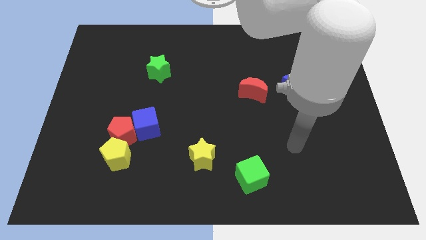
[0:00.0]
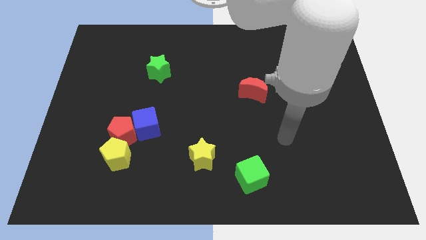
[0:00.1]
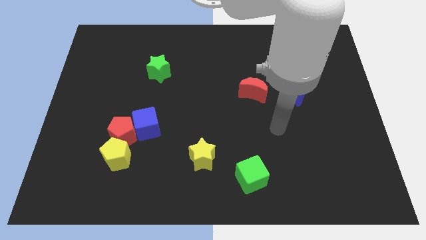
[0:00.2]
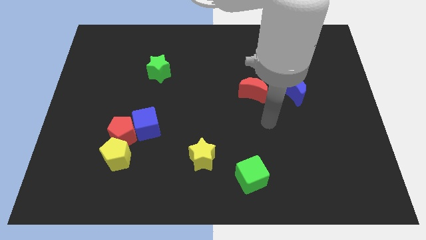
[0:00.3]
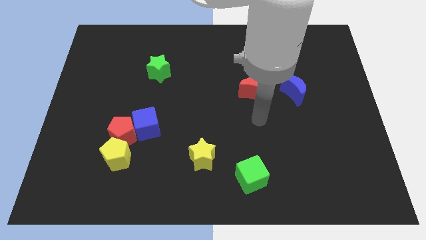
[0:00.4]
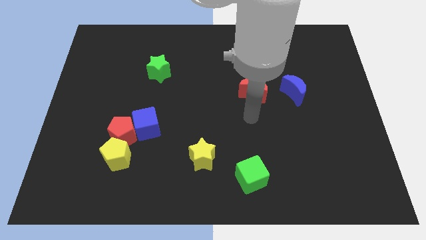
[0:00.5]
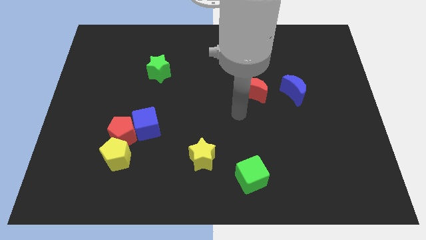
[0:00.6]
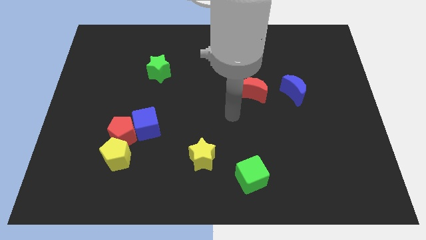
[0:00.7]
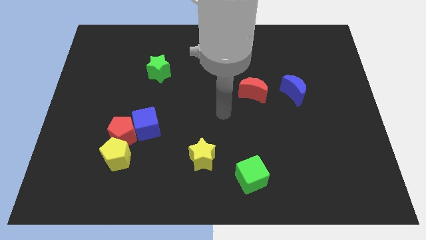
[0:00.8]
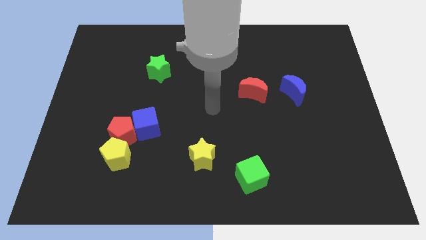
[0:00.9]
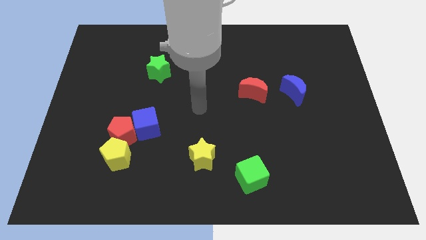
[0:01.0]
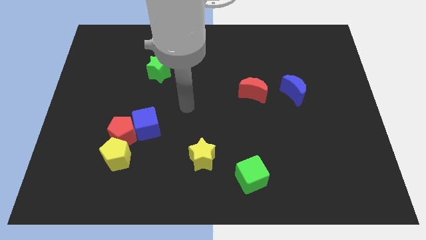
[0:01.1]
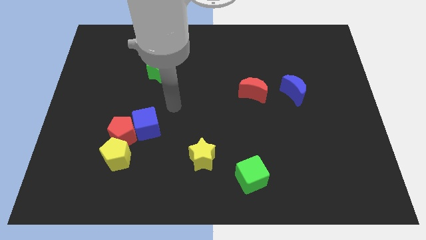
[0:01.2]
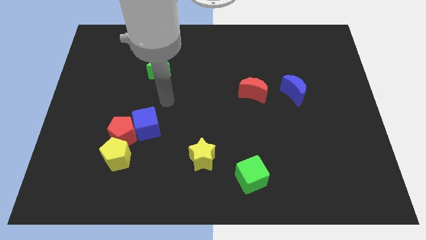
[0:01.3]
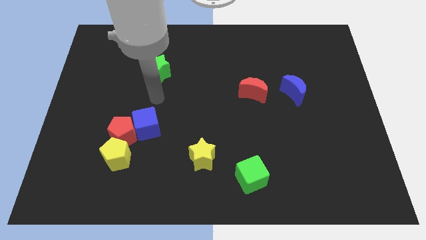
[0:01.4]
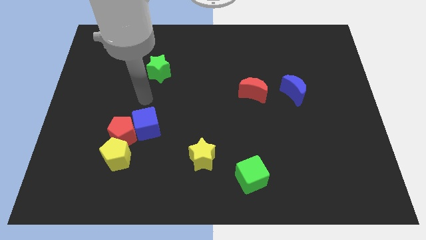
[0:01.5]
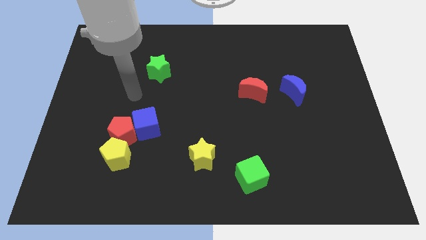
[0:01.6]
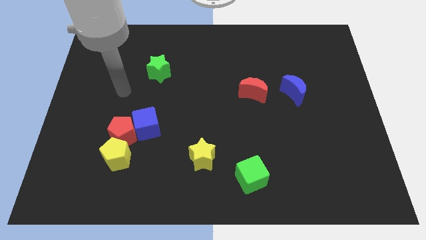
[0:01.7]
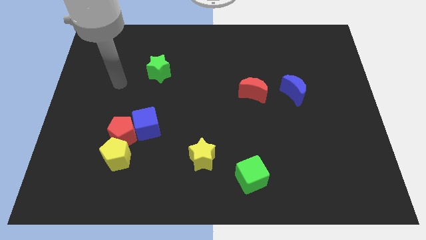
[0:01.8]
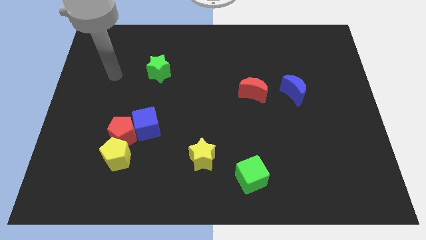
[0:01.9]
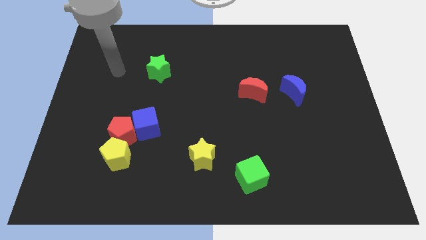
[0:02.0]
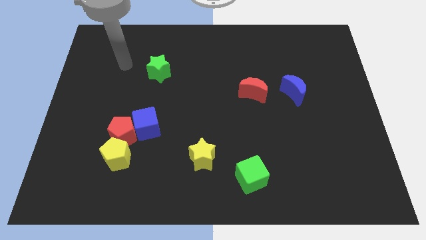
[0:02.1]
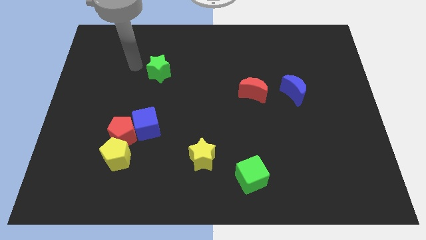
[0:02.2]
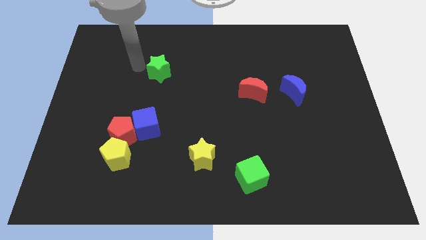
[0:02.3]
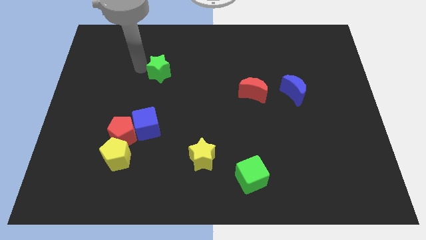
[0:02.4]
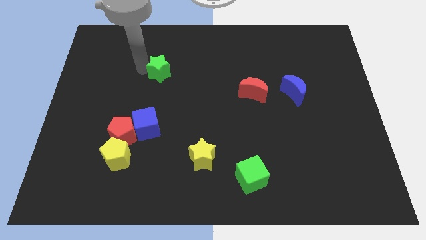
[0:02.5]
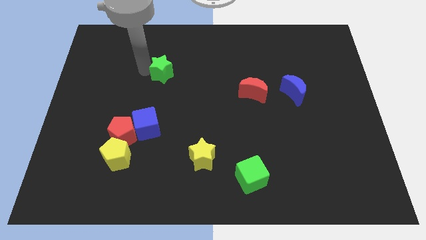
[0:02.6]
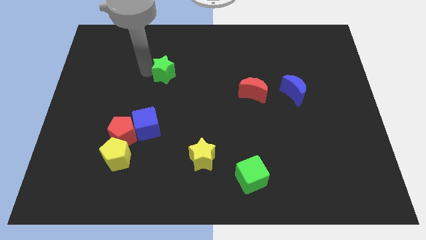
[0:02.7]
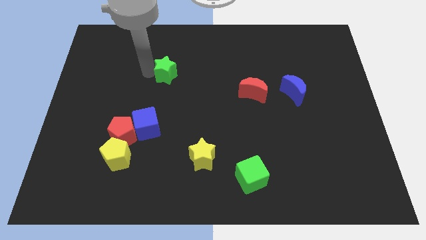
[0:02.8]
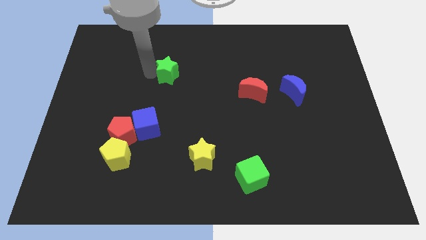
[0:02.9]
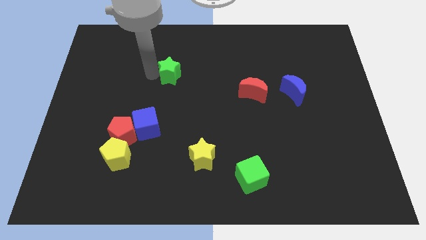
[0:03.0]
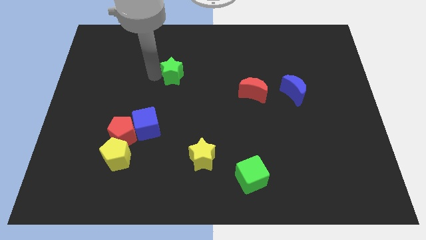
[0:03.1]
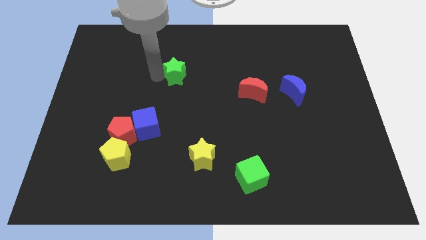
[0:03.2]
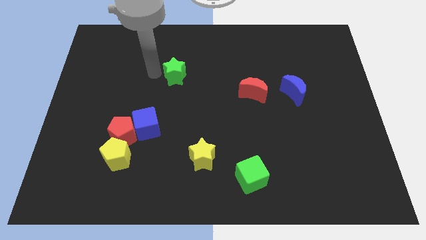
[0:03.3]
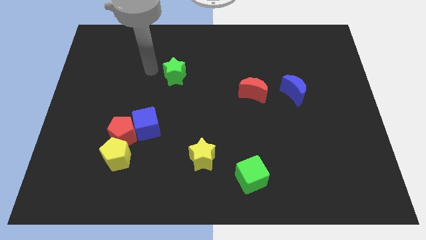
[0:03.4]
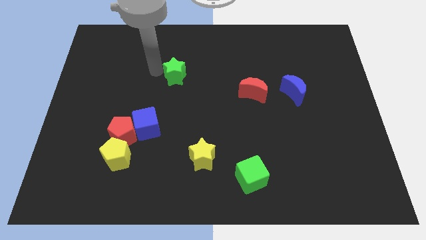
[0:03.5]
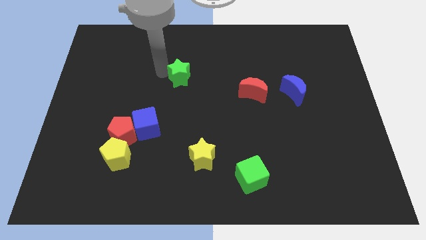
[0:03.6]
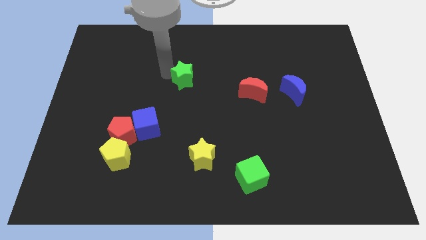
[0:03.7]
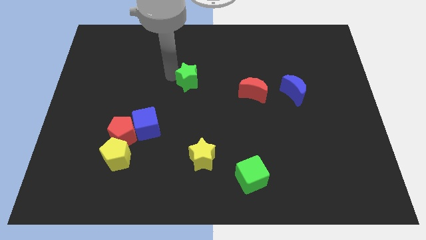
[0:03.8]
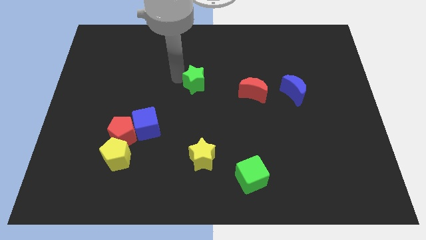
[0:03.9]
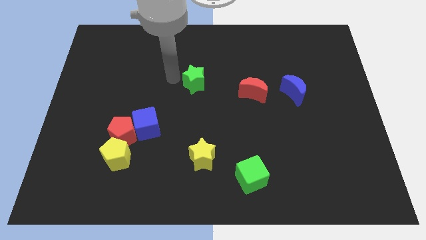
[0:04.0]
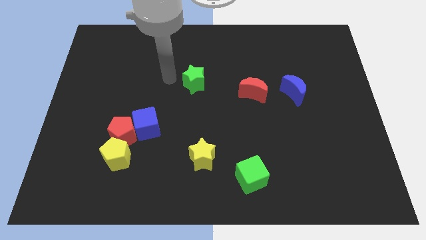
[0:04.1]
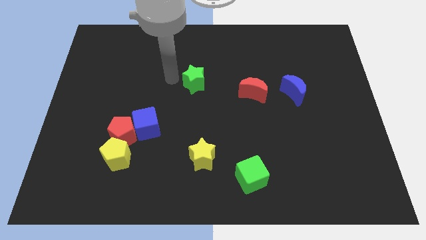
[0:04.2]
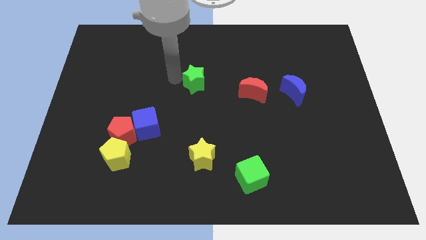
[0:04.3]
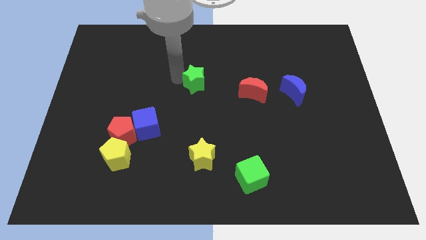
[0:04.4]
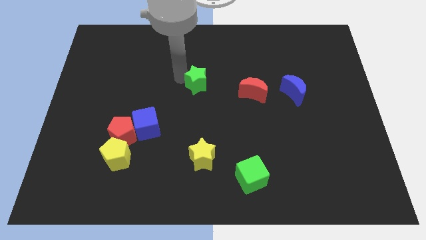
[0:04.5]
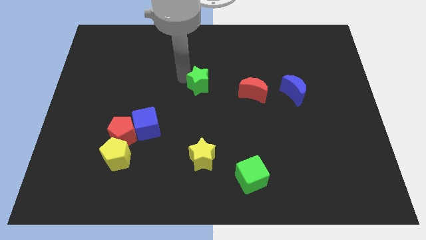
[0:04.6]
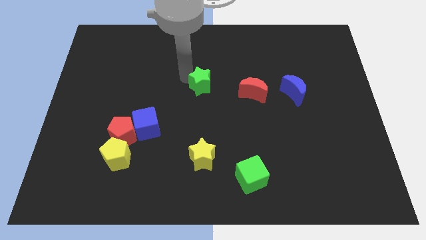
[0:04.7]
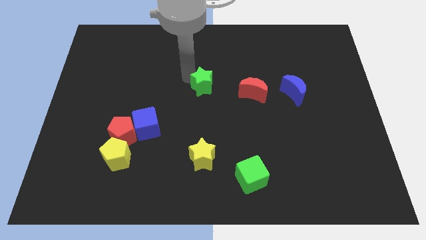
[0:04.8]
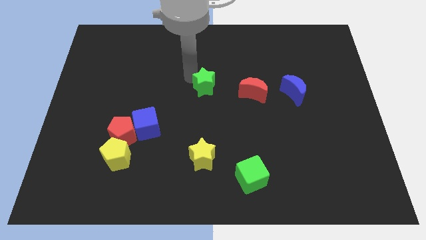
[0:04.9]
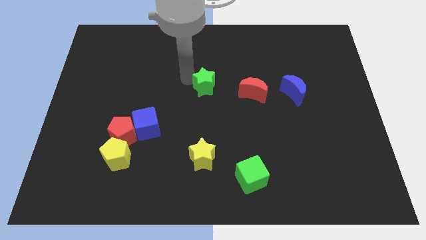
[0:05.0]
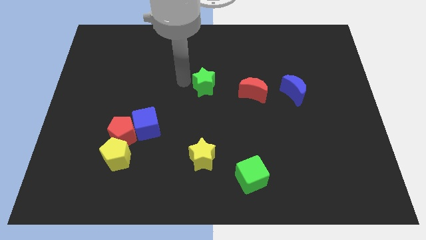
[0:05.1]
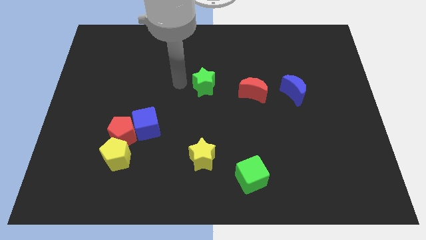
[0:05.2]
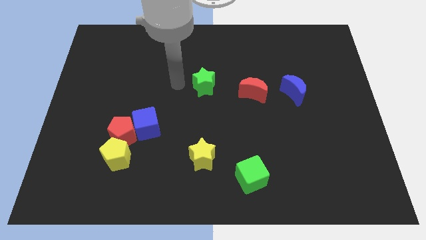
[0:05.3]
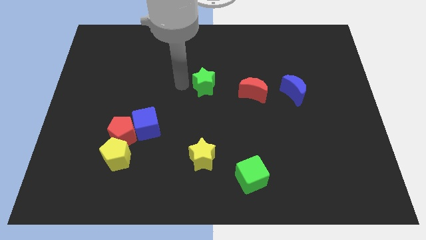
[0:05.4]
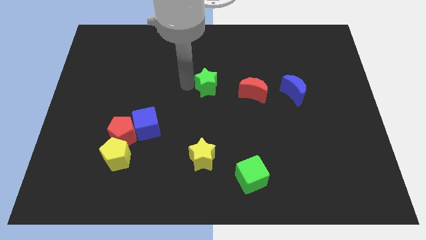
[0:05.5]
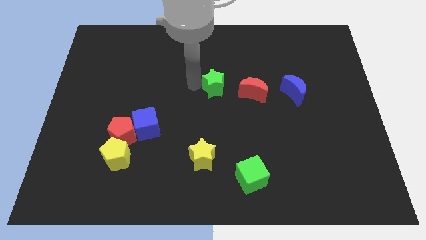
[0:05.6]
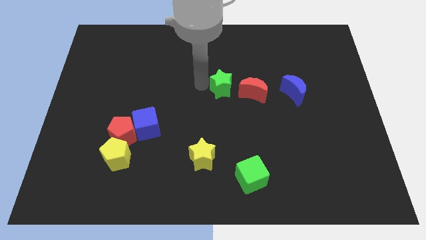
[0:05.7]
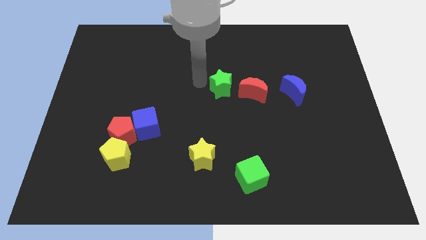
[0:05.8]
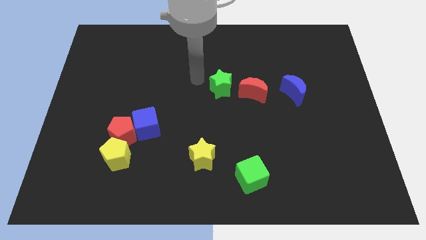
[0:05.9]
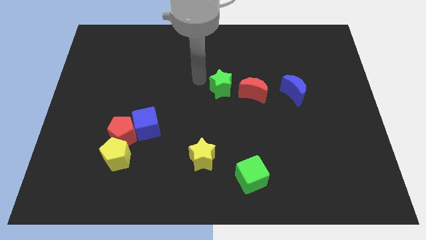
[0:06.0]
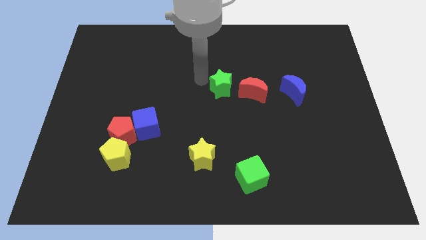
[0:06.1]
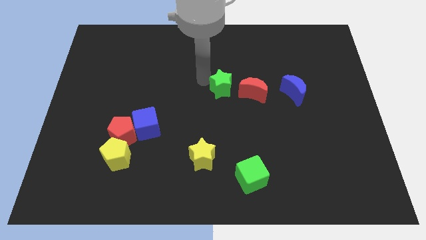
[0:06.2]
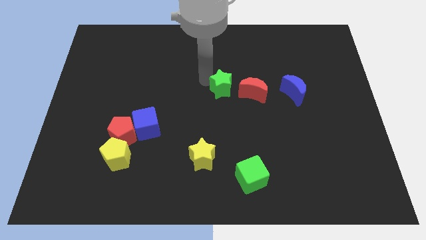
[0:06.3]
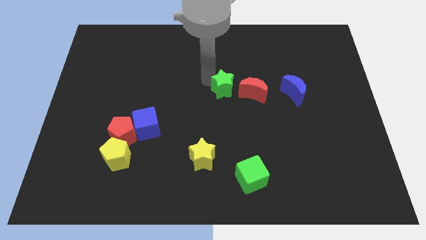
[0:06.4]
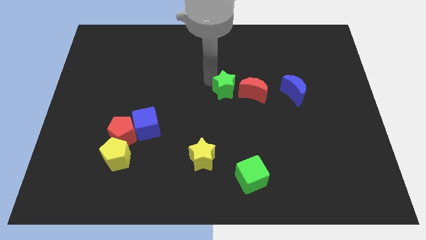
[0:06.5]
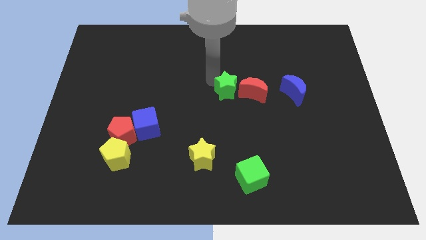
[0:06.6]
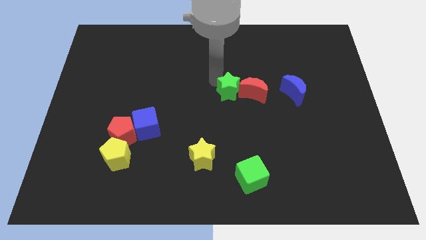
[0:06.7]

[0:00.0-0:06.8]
slide the green star close to the red moon

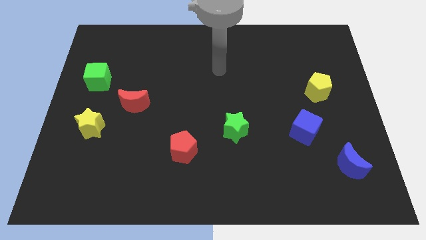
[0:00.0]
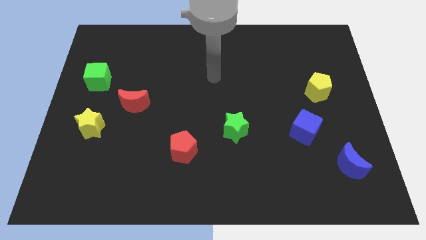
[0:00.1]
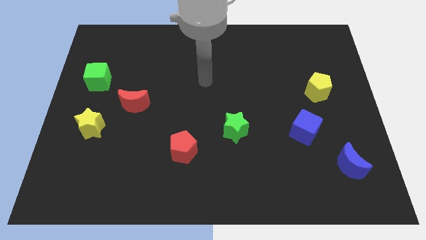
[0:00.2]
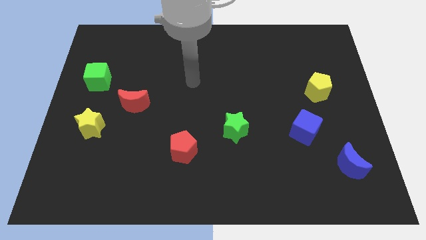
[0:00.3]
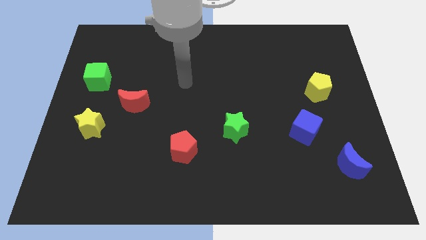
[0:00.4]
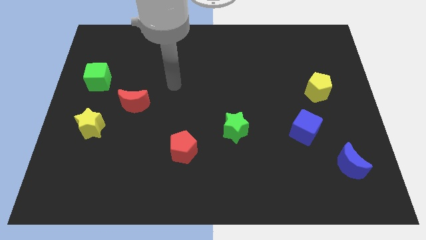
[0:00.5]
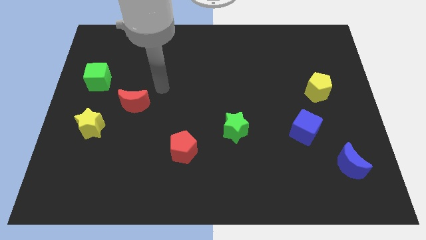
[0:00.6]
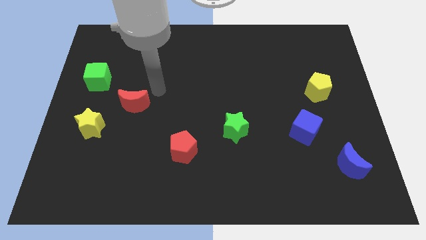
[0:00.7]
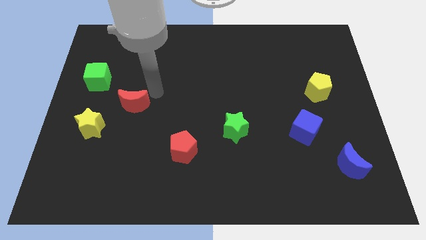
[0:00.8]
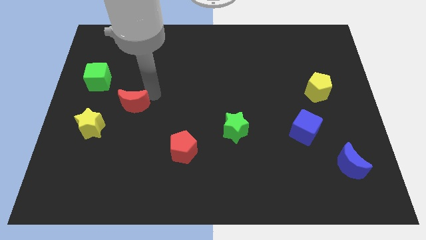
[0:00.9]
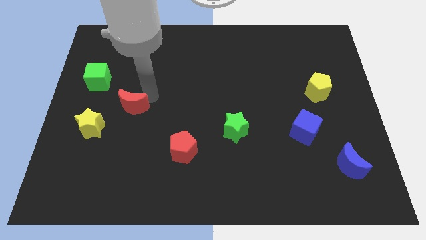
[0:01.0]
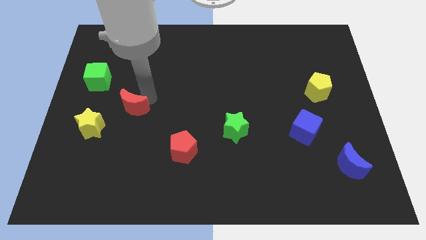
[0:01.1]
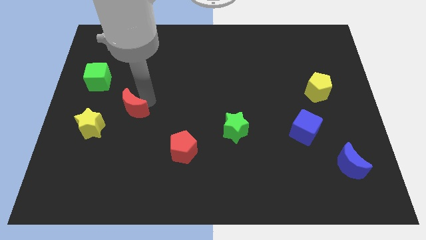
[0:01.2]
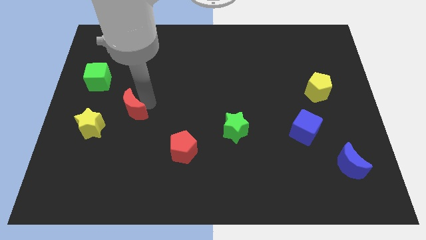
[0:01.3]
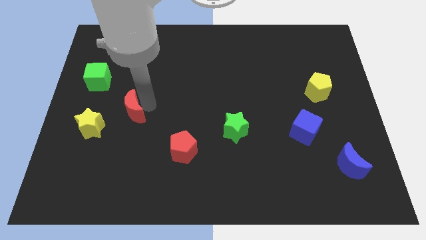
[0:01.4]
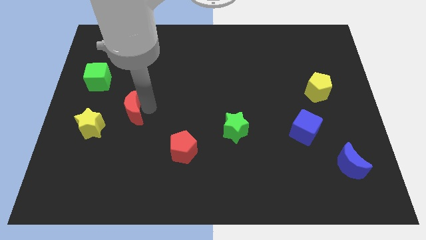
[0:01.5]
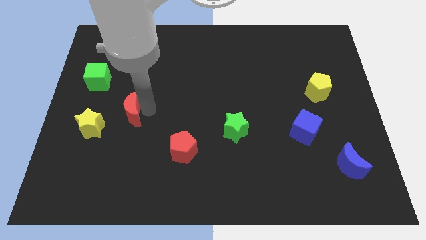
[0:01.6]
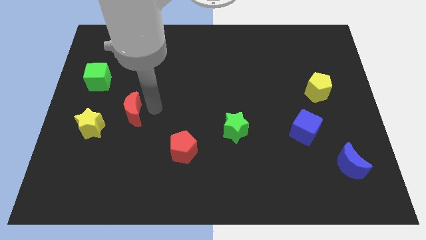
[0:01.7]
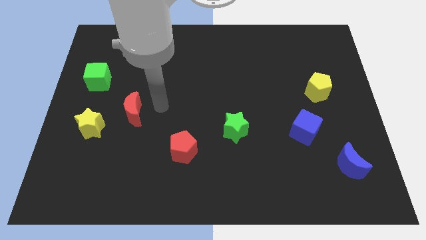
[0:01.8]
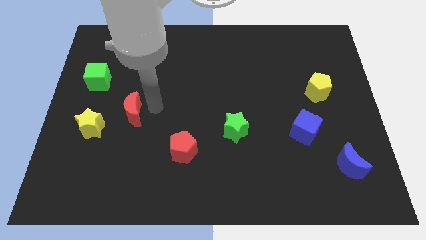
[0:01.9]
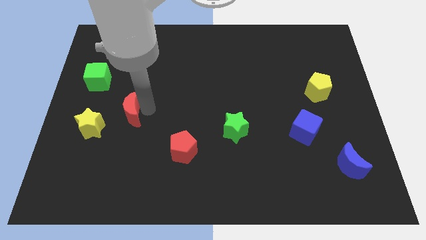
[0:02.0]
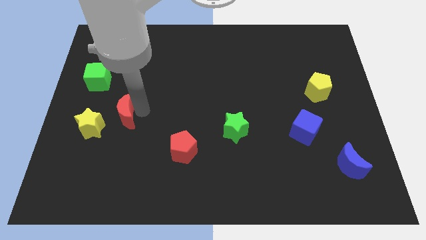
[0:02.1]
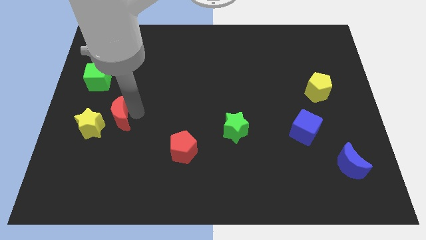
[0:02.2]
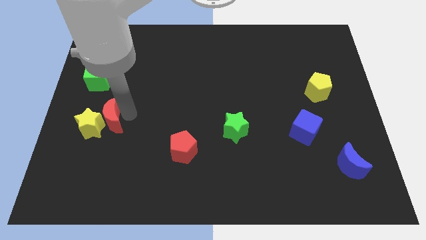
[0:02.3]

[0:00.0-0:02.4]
push the red moon next to the yellow star
